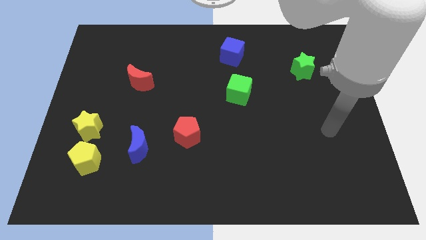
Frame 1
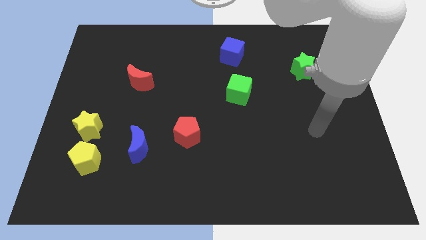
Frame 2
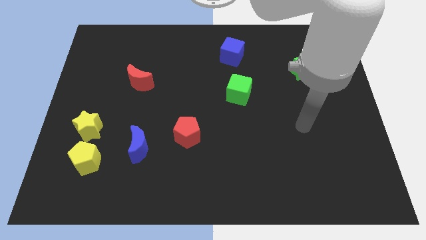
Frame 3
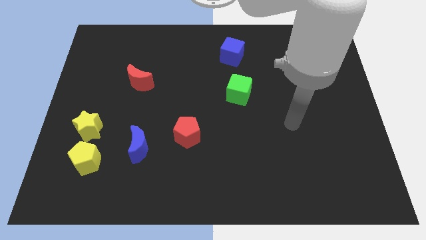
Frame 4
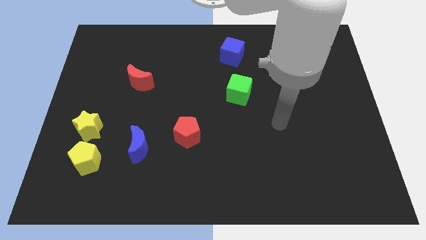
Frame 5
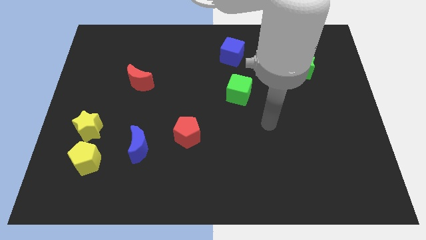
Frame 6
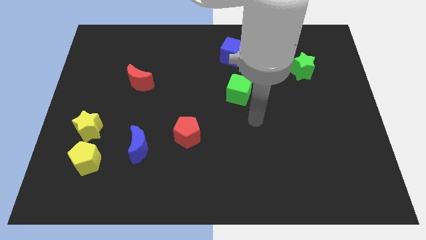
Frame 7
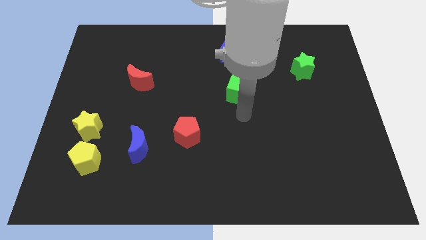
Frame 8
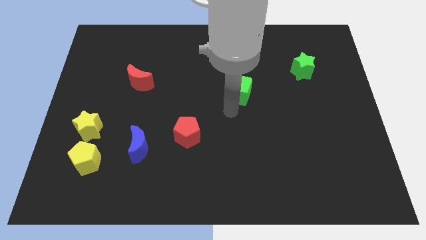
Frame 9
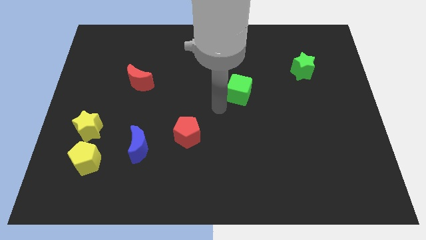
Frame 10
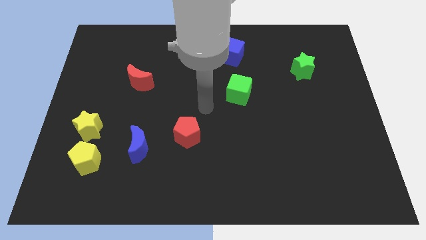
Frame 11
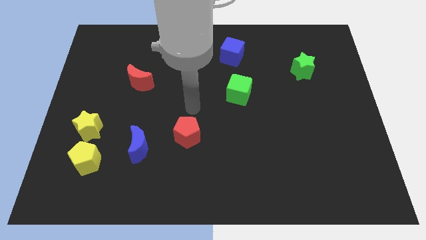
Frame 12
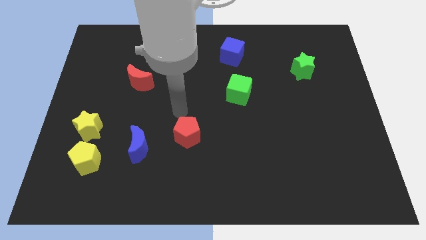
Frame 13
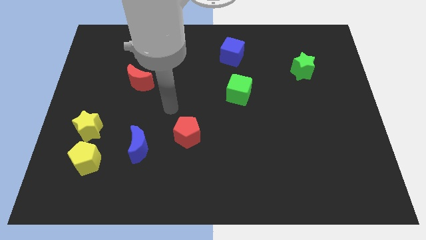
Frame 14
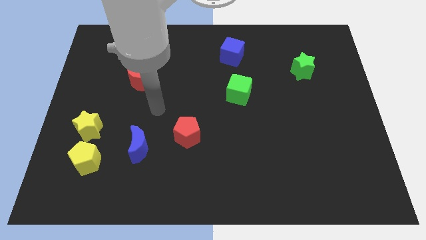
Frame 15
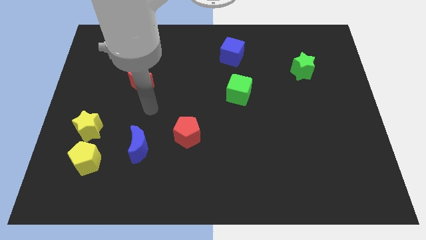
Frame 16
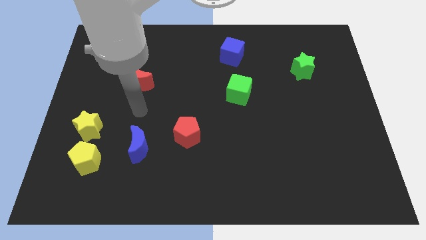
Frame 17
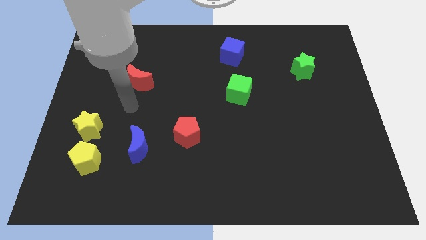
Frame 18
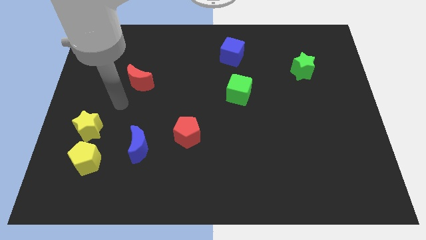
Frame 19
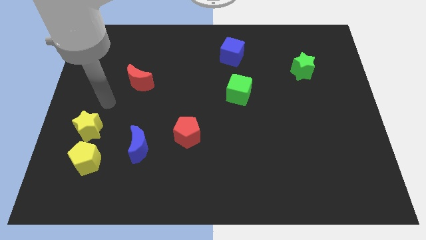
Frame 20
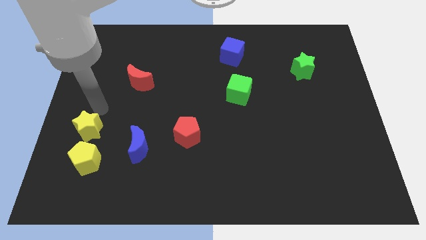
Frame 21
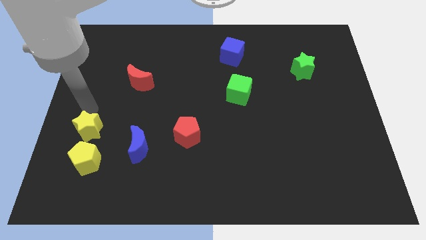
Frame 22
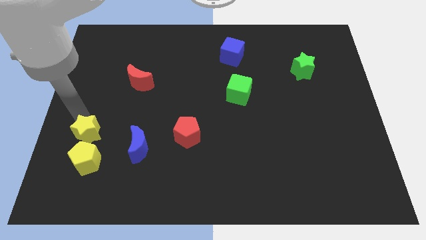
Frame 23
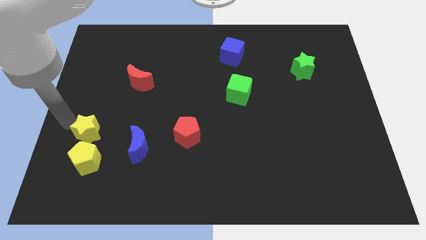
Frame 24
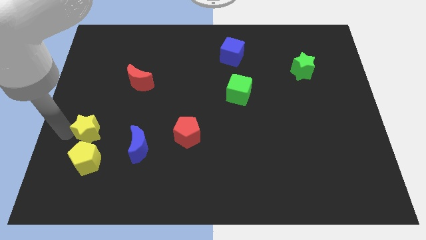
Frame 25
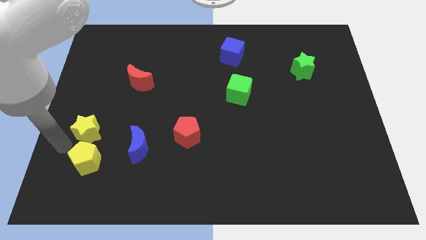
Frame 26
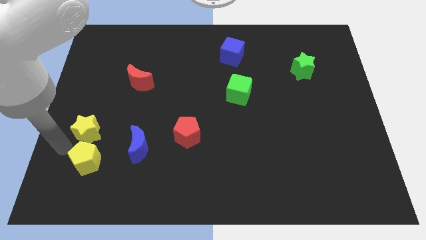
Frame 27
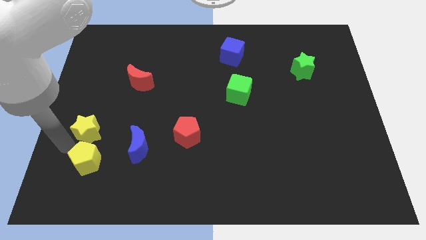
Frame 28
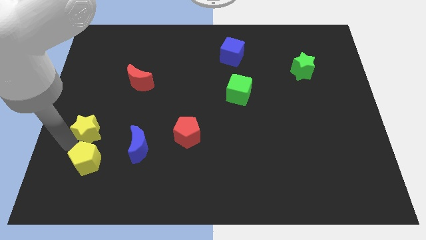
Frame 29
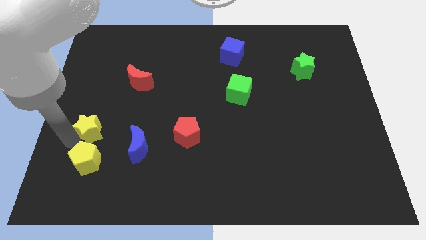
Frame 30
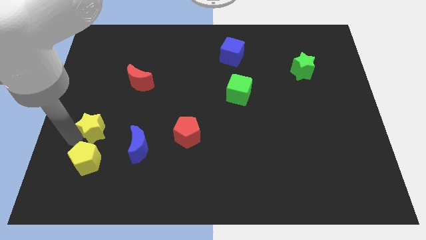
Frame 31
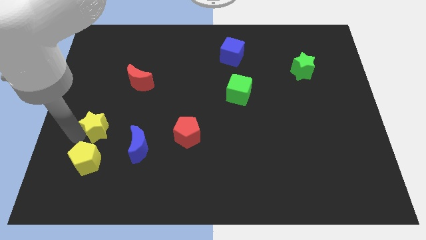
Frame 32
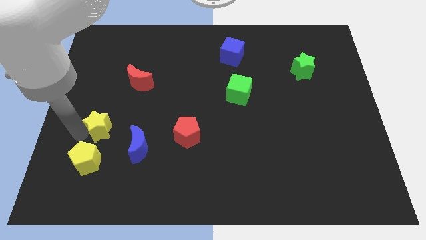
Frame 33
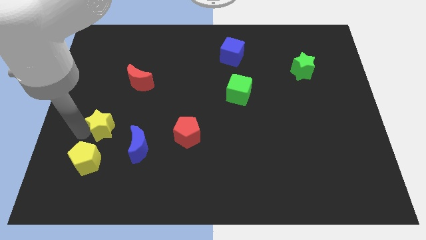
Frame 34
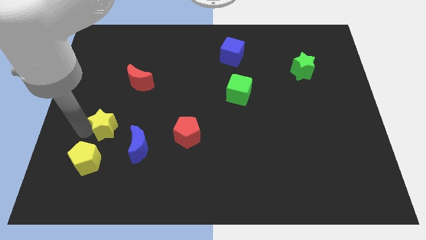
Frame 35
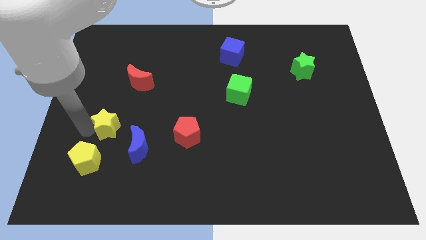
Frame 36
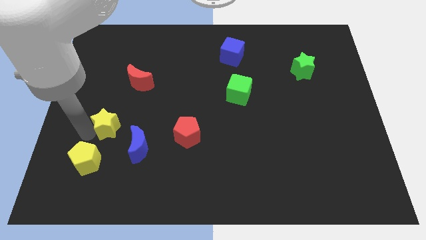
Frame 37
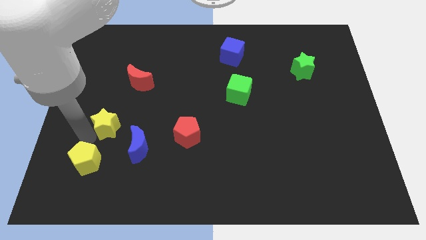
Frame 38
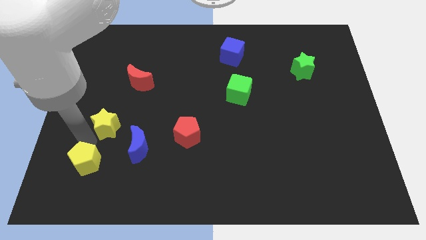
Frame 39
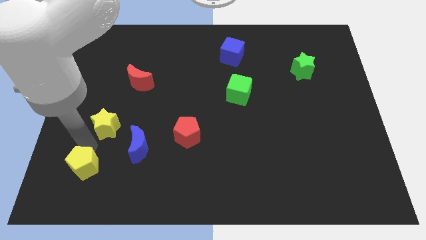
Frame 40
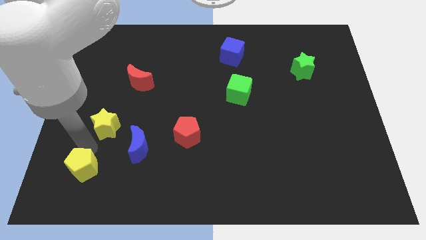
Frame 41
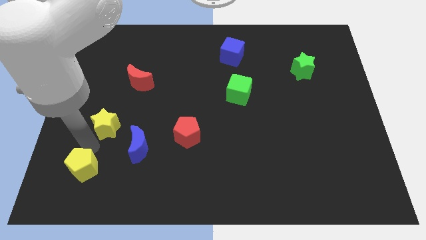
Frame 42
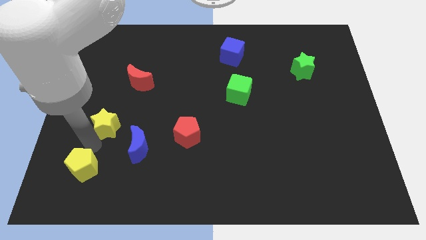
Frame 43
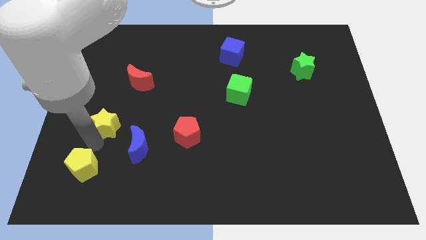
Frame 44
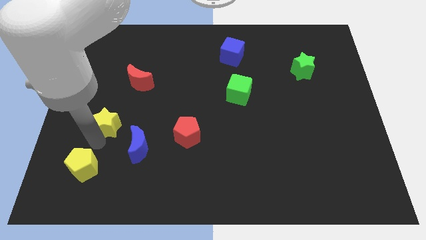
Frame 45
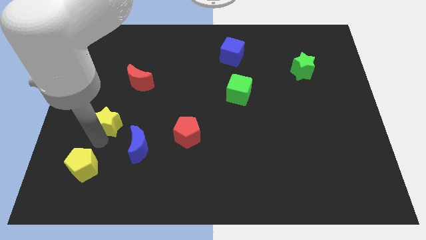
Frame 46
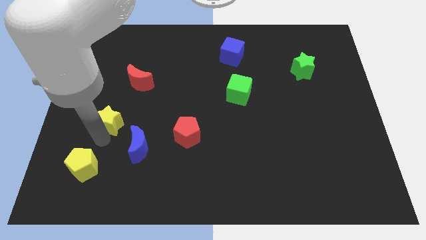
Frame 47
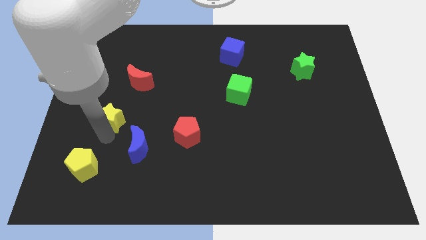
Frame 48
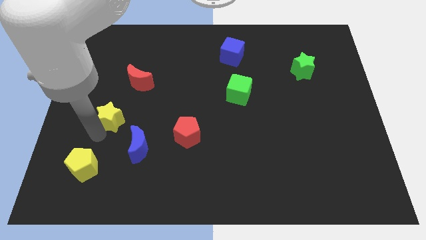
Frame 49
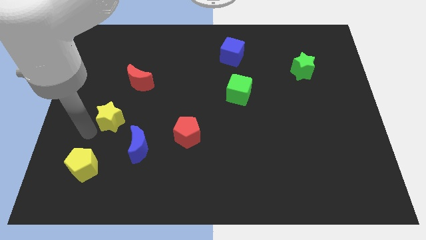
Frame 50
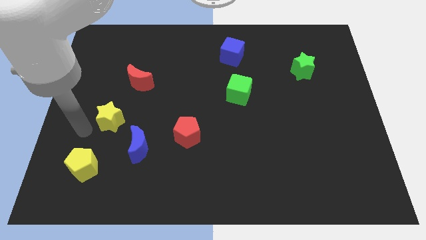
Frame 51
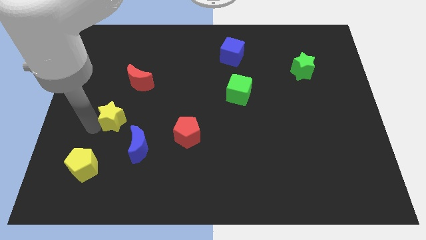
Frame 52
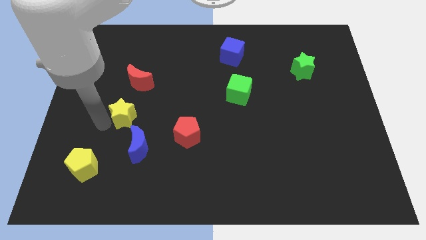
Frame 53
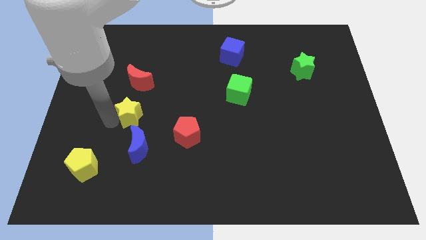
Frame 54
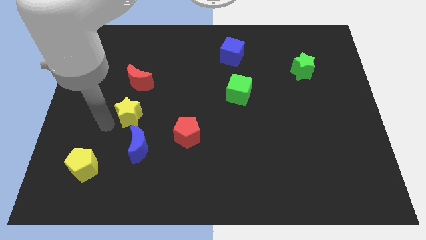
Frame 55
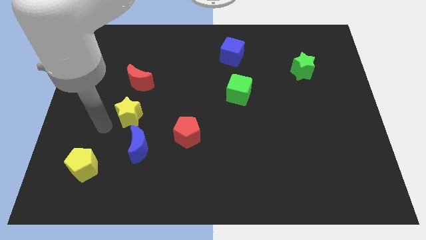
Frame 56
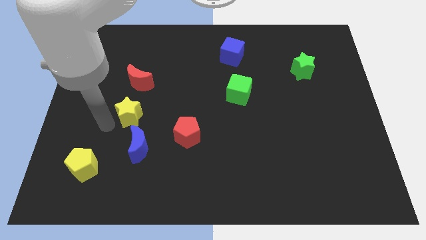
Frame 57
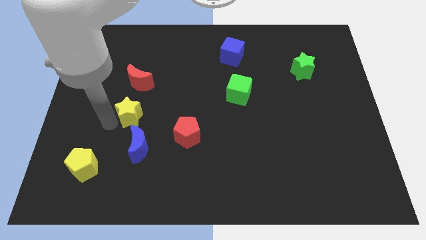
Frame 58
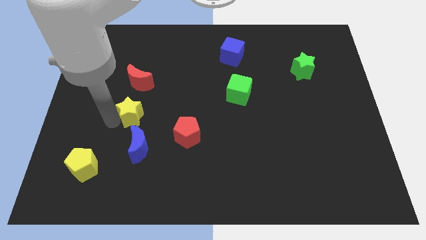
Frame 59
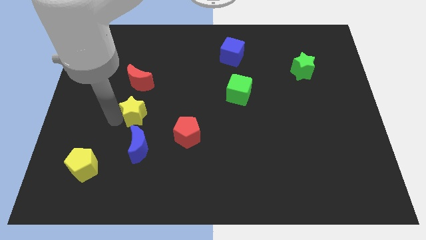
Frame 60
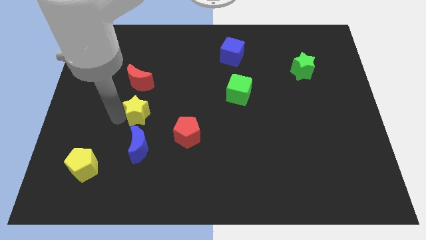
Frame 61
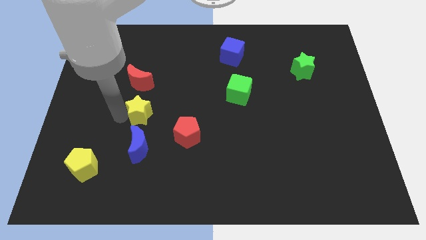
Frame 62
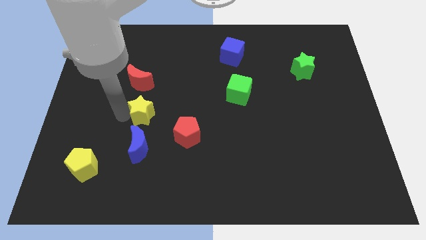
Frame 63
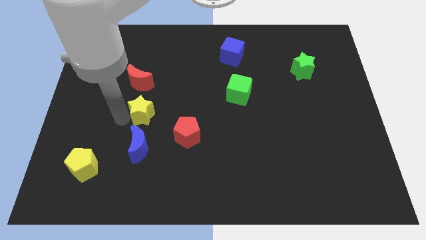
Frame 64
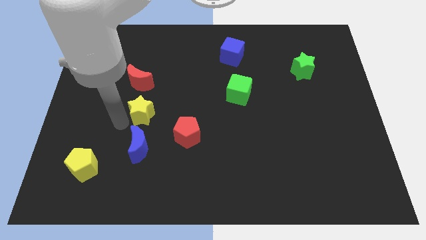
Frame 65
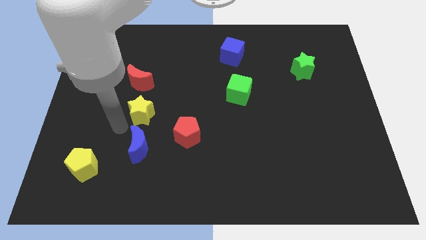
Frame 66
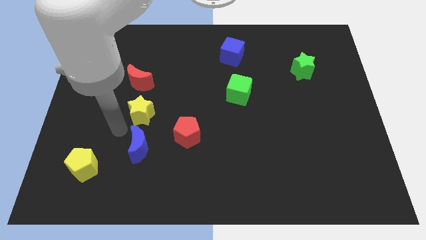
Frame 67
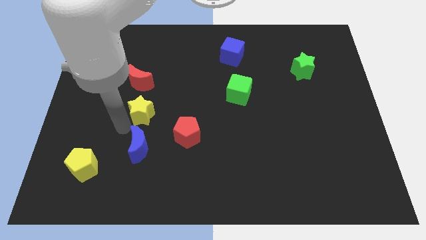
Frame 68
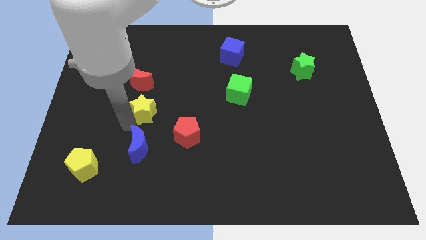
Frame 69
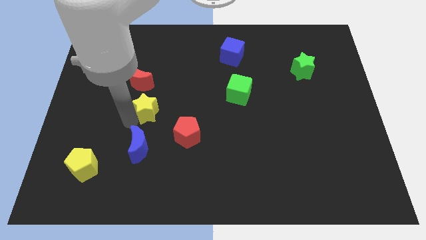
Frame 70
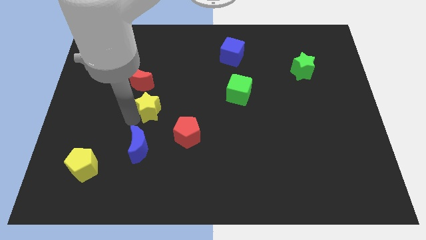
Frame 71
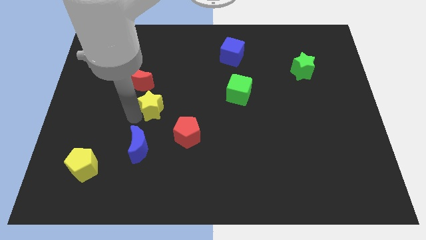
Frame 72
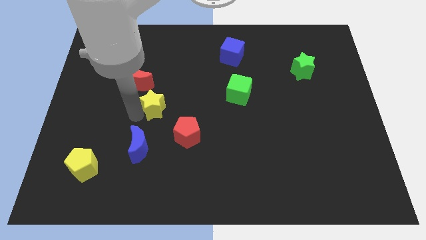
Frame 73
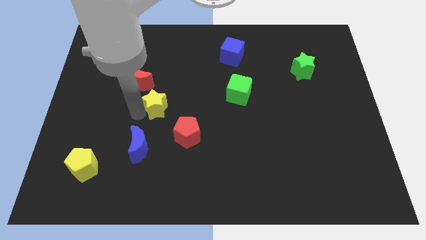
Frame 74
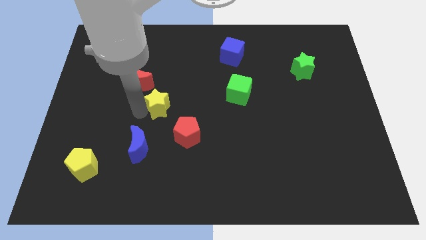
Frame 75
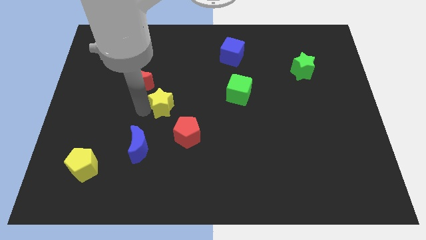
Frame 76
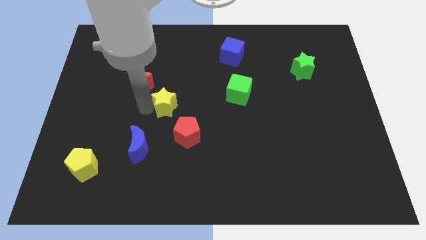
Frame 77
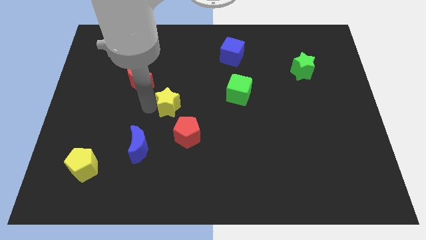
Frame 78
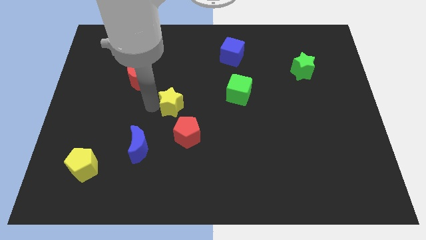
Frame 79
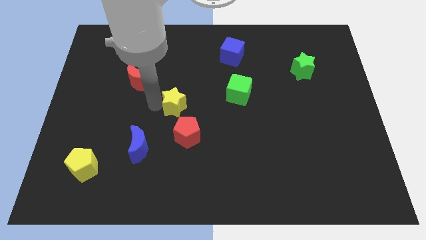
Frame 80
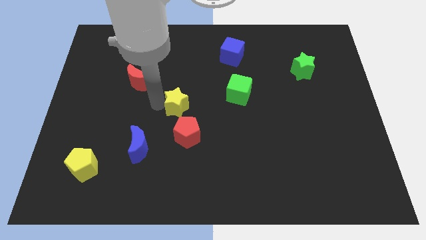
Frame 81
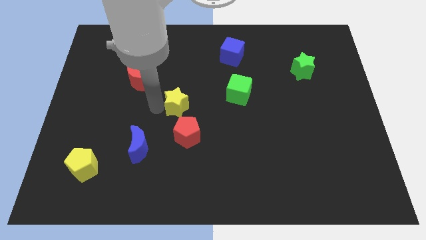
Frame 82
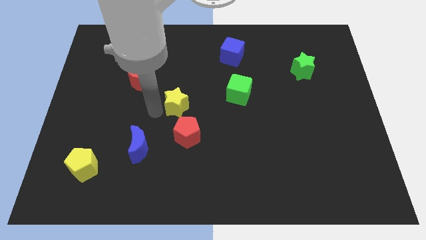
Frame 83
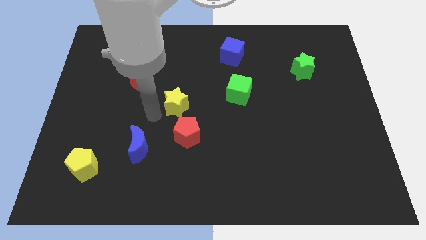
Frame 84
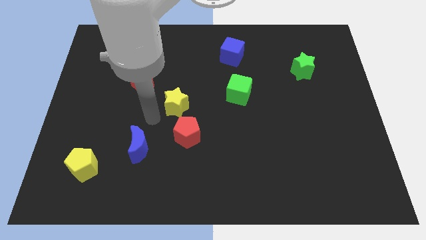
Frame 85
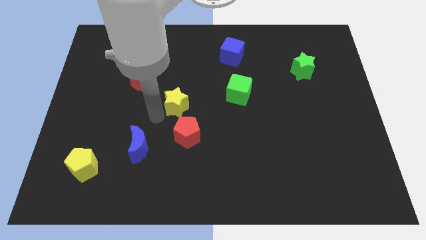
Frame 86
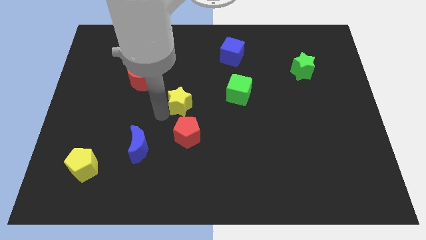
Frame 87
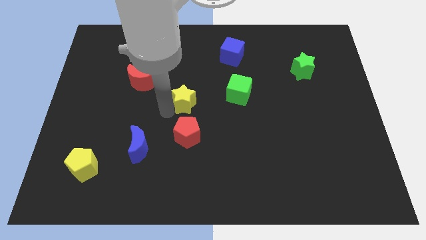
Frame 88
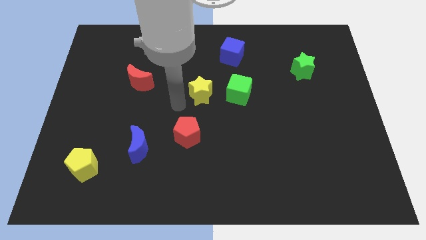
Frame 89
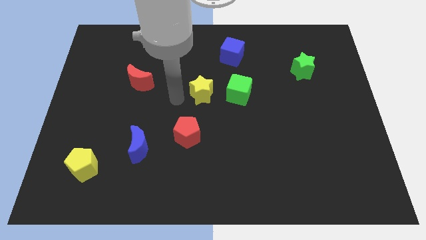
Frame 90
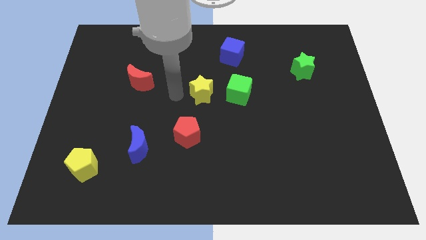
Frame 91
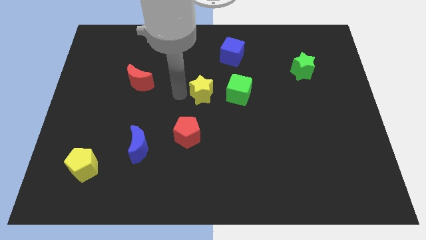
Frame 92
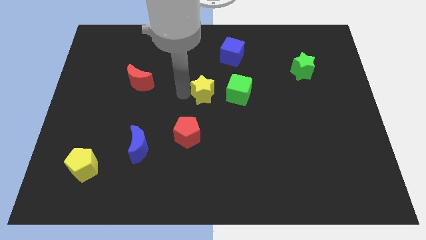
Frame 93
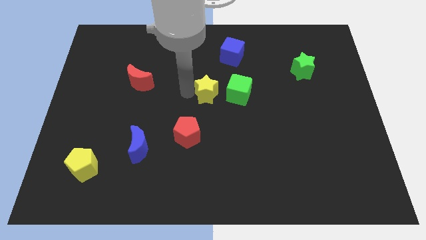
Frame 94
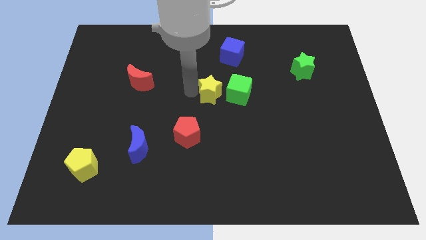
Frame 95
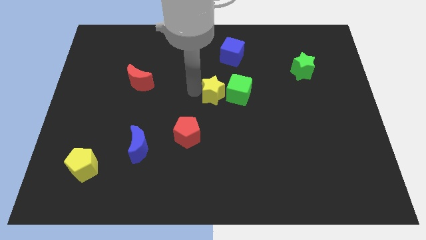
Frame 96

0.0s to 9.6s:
move the yellow star towards the green cube
